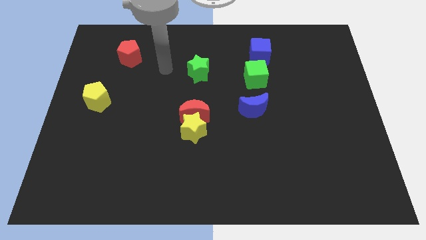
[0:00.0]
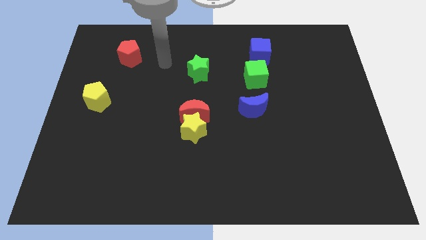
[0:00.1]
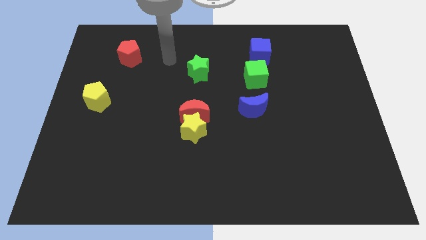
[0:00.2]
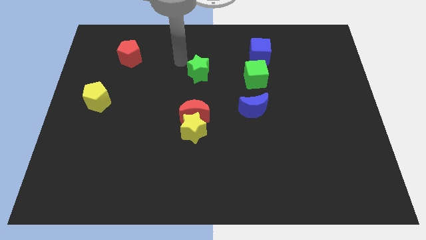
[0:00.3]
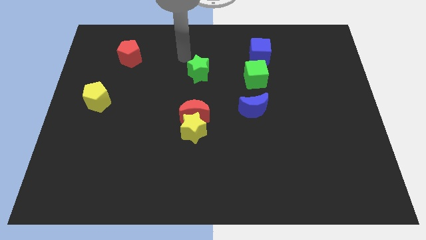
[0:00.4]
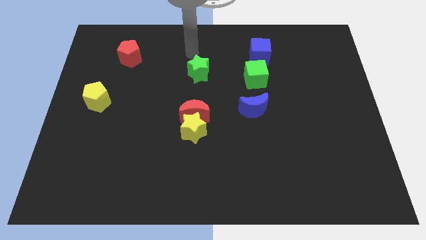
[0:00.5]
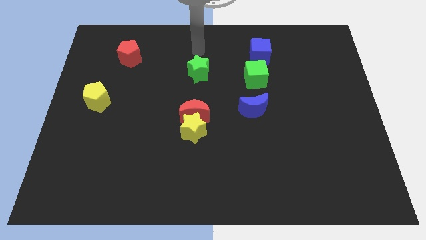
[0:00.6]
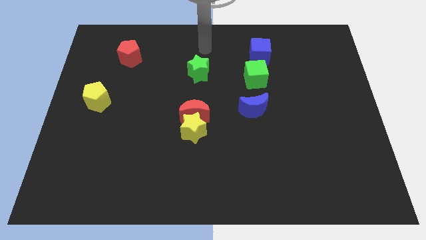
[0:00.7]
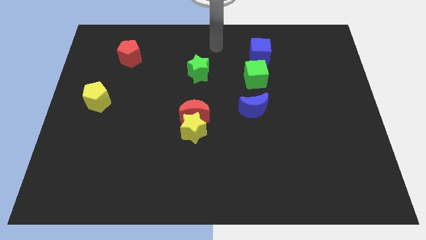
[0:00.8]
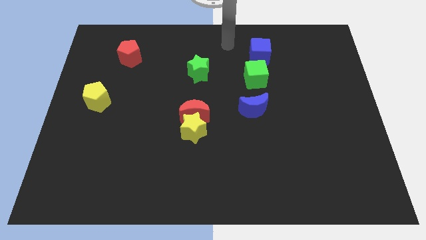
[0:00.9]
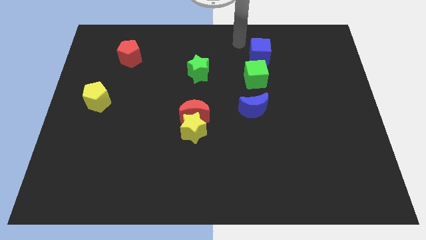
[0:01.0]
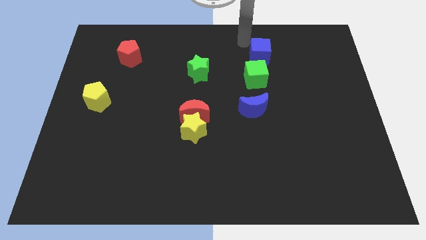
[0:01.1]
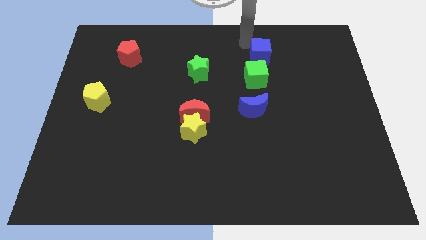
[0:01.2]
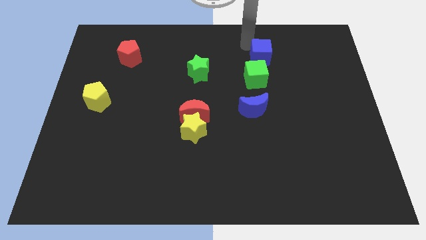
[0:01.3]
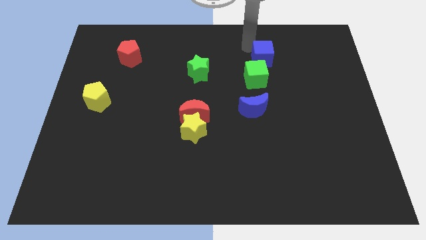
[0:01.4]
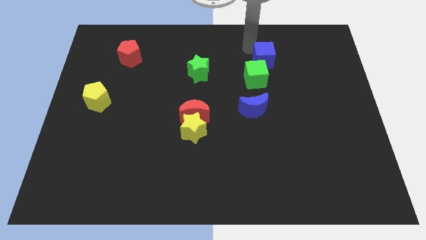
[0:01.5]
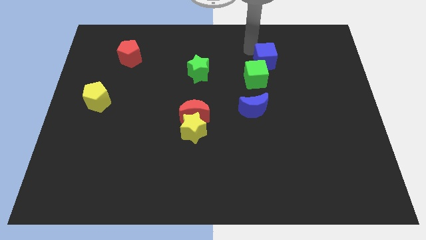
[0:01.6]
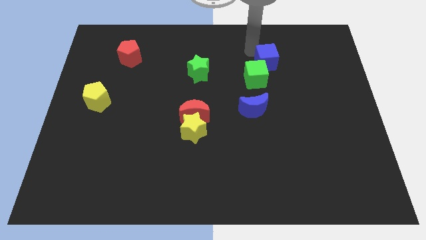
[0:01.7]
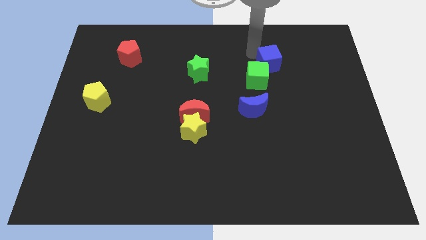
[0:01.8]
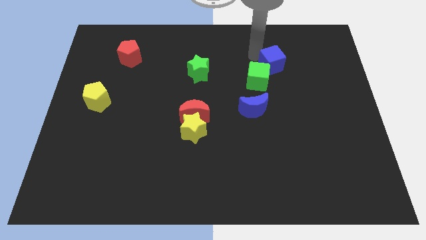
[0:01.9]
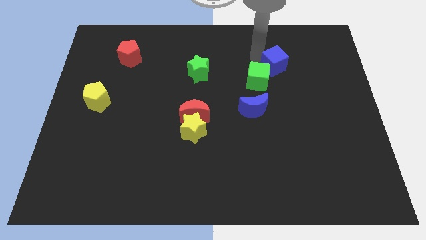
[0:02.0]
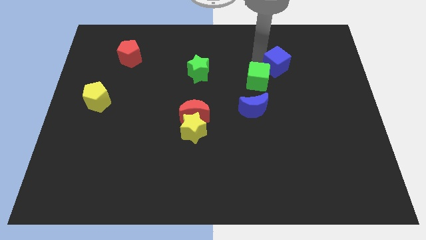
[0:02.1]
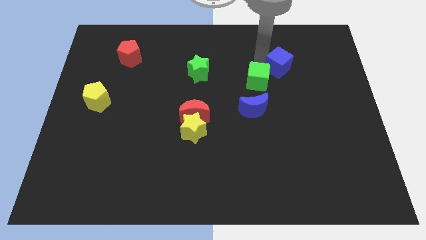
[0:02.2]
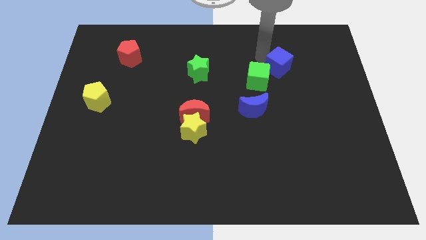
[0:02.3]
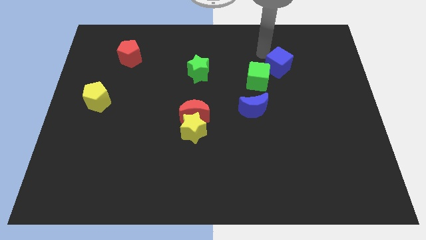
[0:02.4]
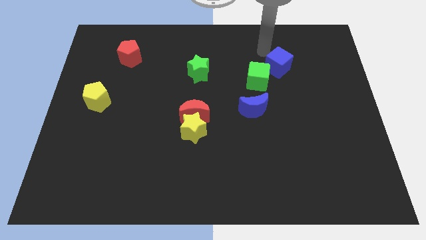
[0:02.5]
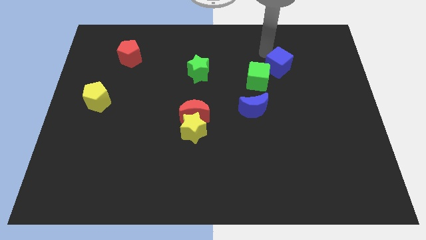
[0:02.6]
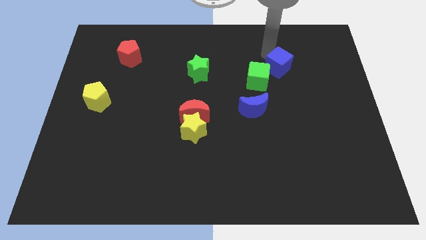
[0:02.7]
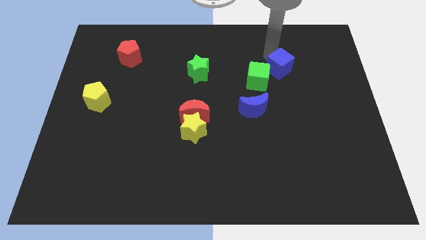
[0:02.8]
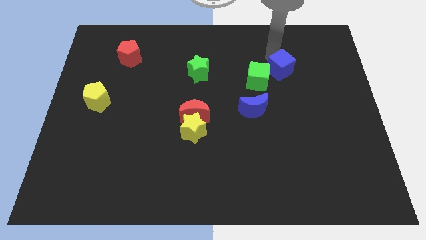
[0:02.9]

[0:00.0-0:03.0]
move the blue cube a little bit down and to the right

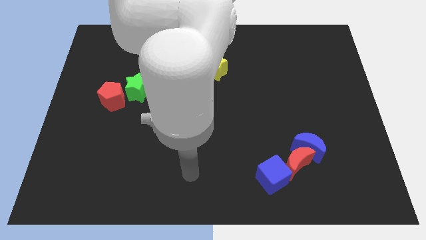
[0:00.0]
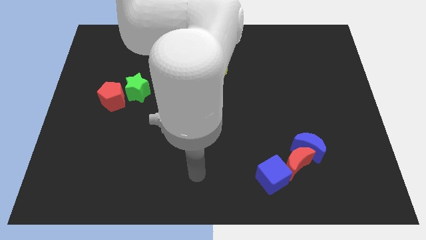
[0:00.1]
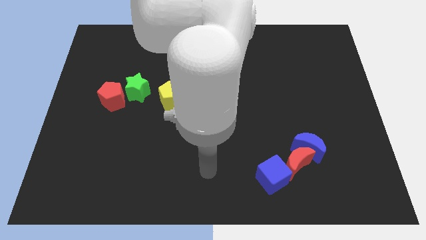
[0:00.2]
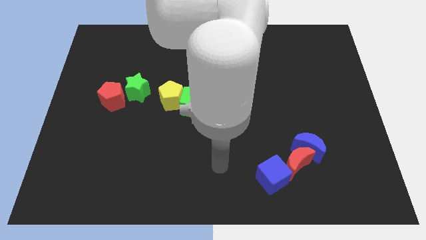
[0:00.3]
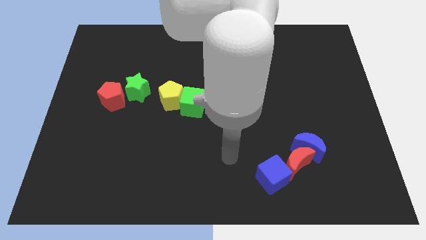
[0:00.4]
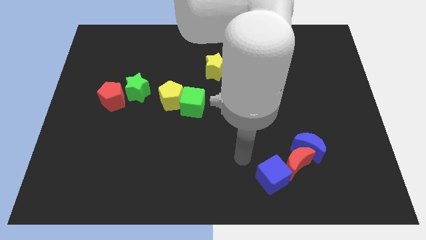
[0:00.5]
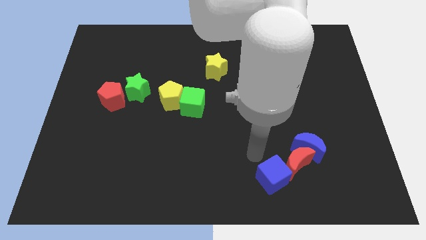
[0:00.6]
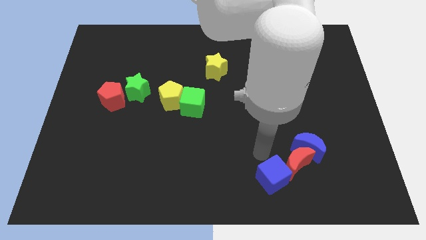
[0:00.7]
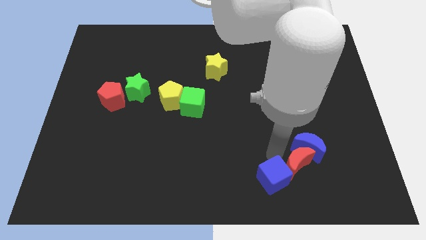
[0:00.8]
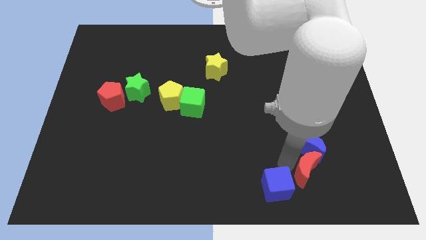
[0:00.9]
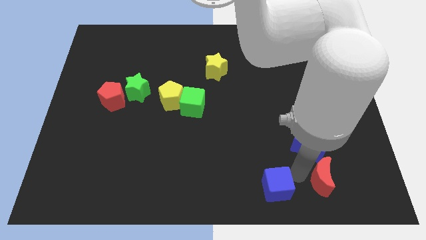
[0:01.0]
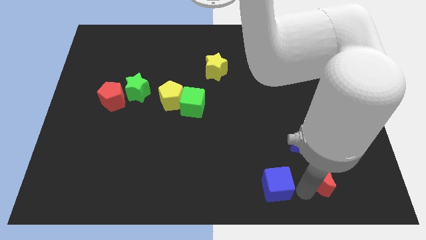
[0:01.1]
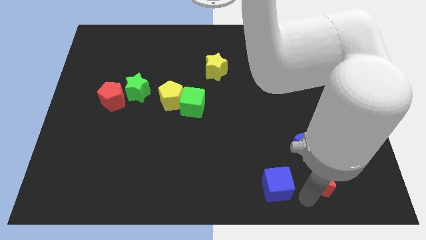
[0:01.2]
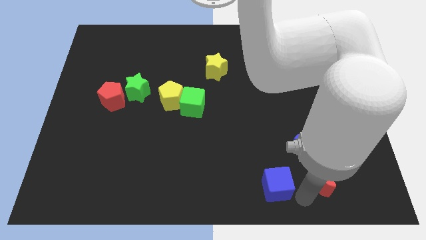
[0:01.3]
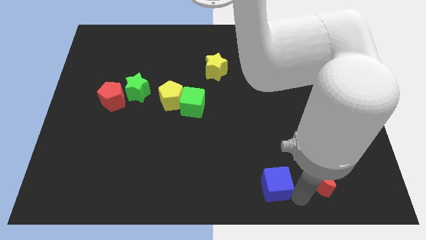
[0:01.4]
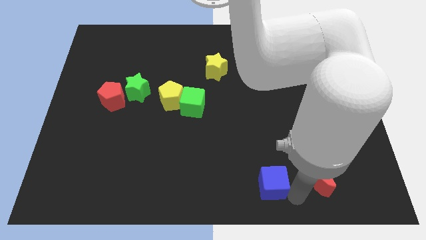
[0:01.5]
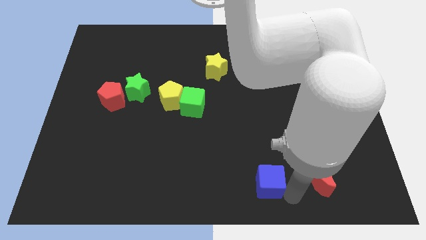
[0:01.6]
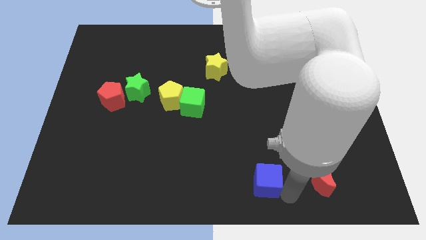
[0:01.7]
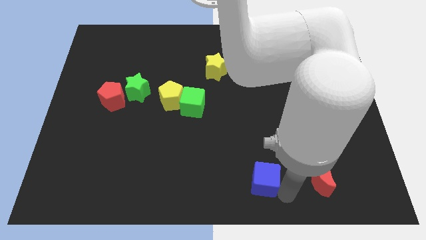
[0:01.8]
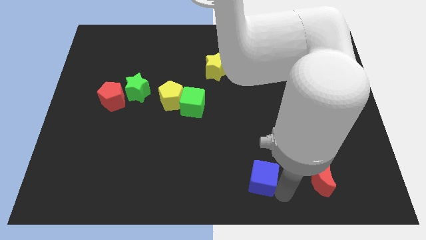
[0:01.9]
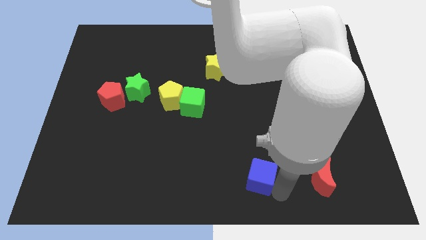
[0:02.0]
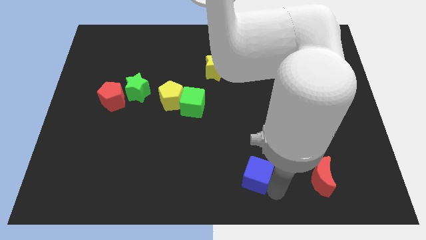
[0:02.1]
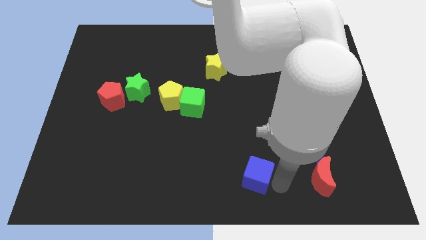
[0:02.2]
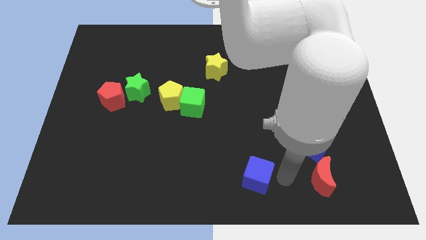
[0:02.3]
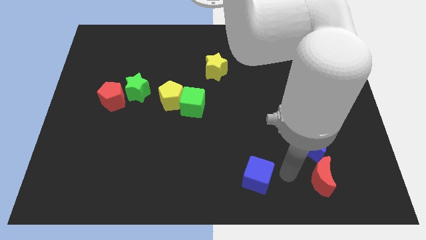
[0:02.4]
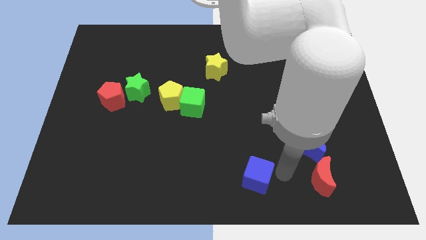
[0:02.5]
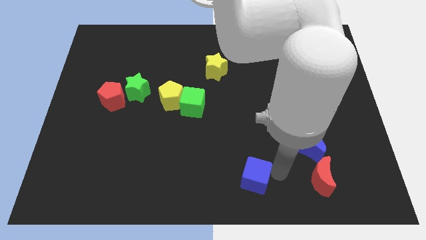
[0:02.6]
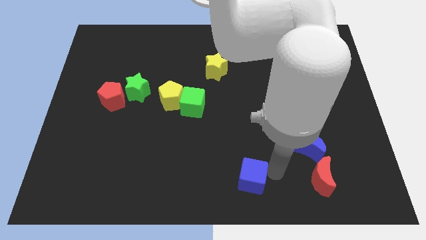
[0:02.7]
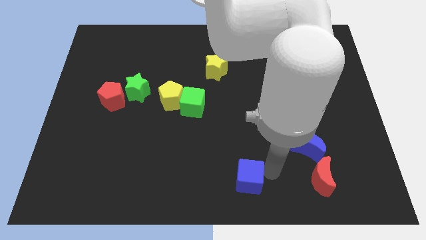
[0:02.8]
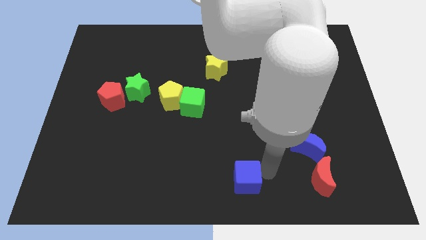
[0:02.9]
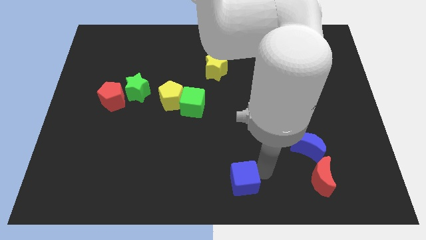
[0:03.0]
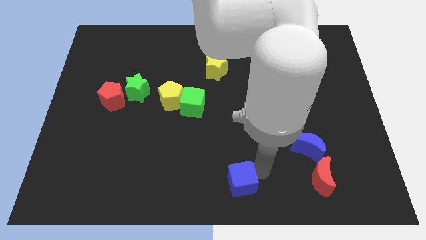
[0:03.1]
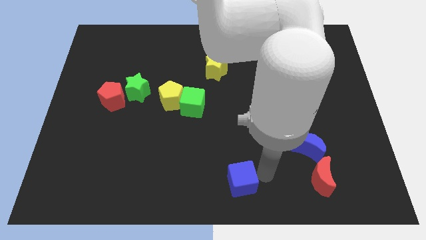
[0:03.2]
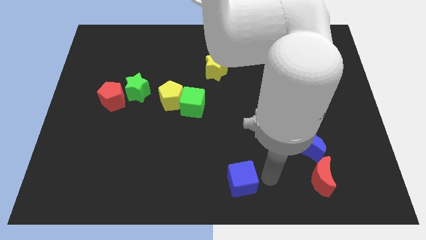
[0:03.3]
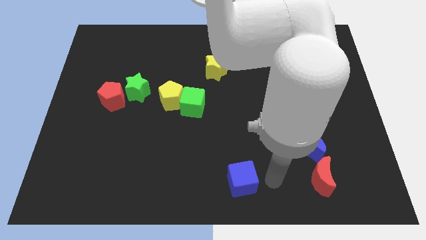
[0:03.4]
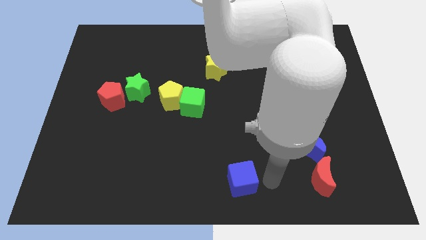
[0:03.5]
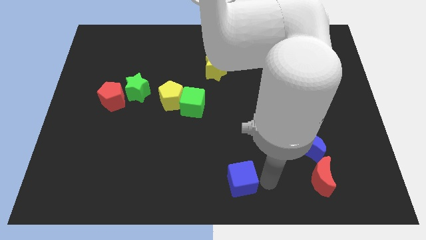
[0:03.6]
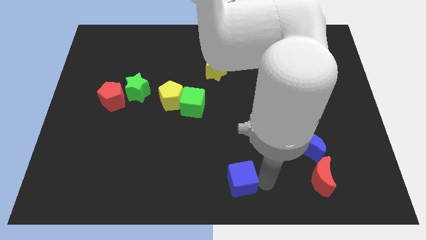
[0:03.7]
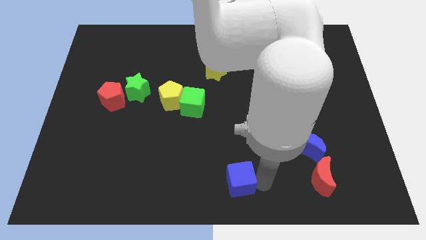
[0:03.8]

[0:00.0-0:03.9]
push the blue cube to the left slightly

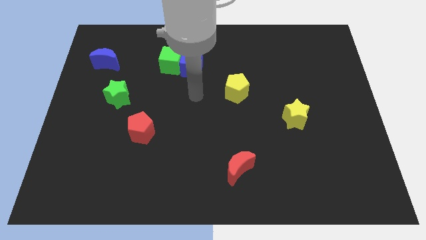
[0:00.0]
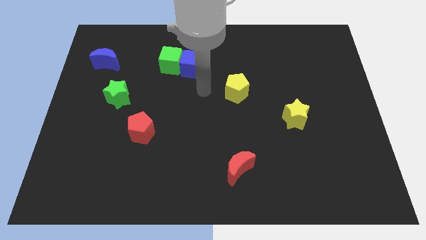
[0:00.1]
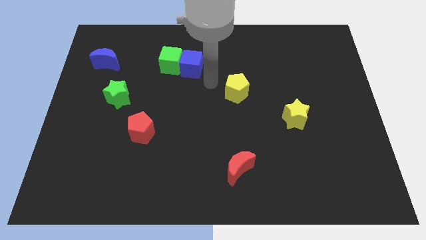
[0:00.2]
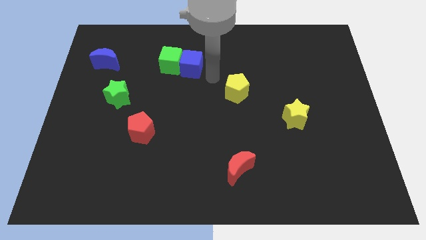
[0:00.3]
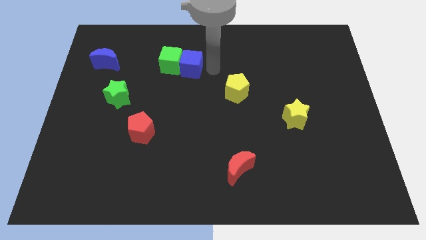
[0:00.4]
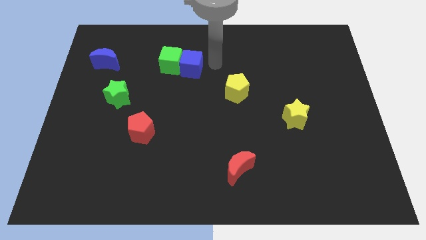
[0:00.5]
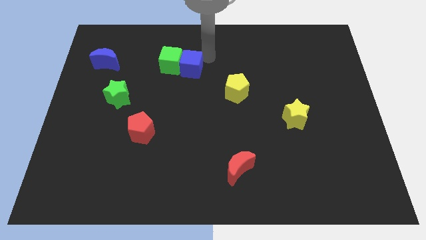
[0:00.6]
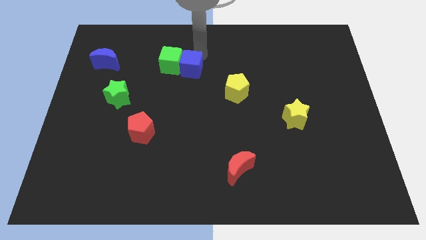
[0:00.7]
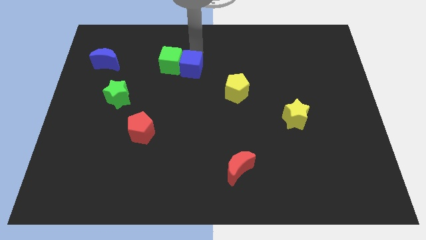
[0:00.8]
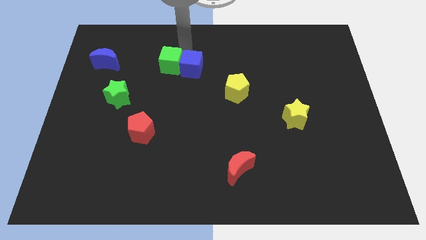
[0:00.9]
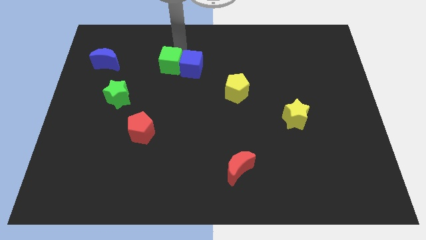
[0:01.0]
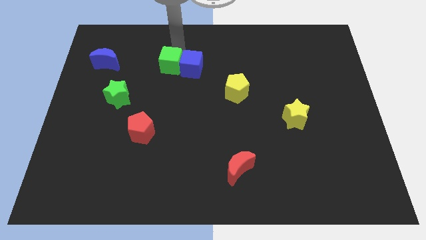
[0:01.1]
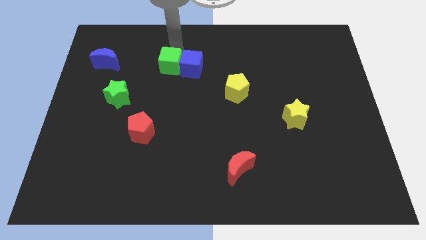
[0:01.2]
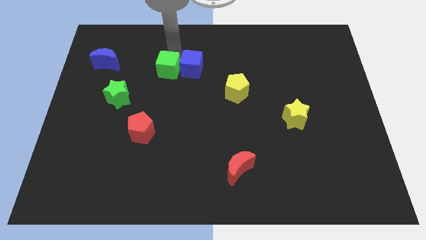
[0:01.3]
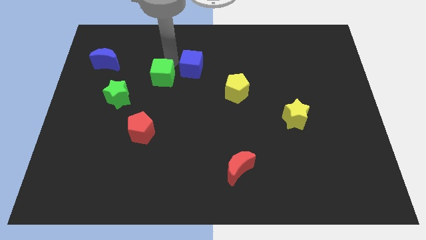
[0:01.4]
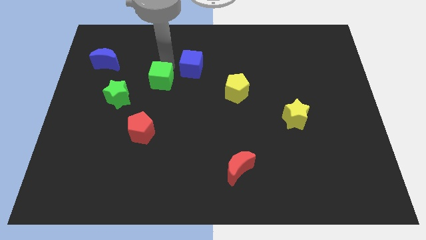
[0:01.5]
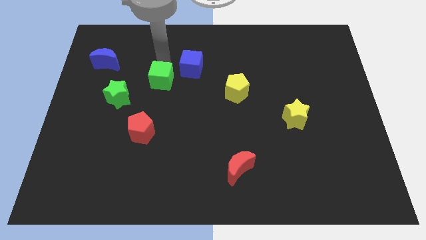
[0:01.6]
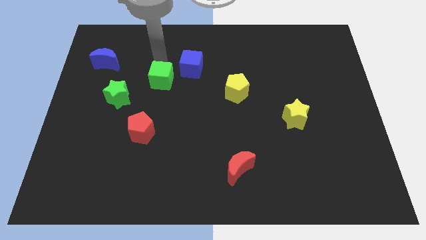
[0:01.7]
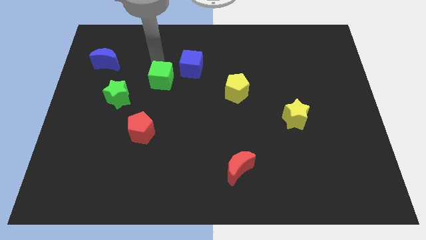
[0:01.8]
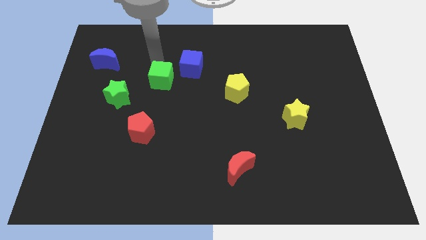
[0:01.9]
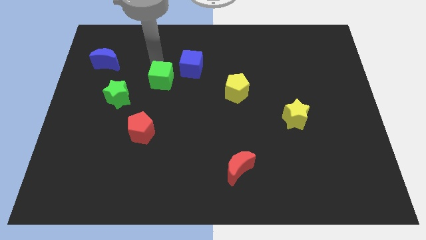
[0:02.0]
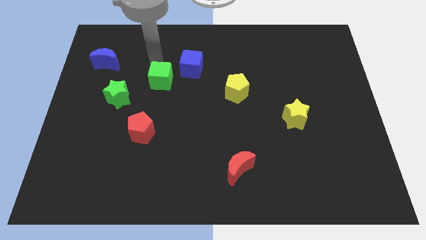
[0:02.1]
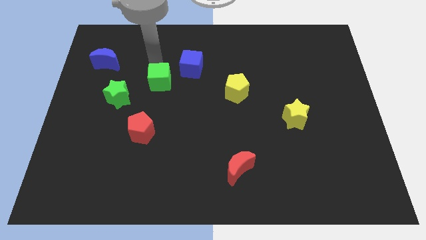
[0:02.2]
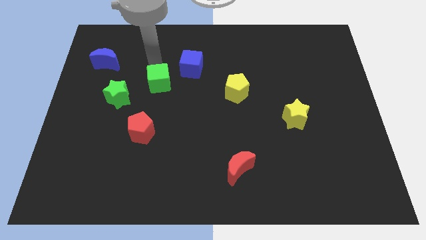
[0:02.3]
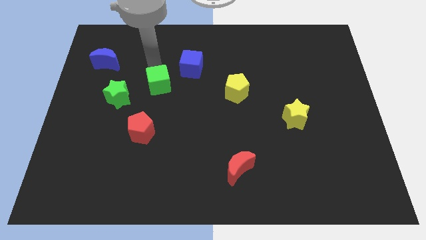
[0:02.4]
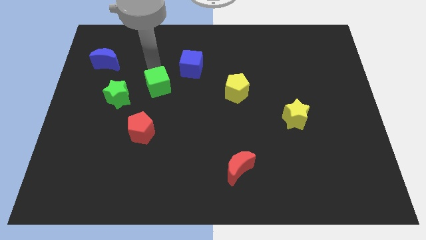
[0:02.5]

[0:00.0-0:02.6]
slide the green cube downwards a little bit
